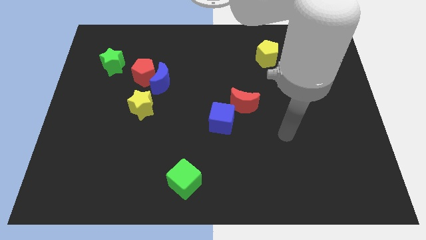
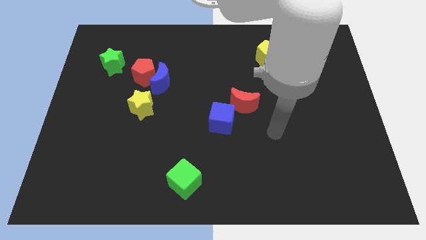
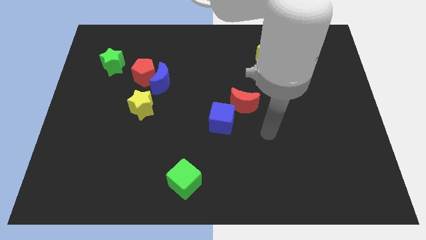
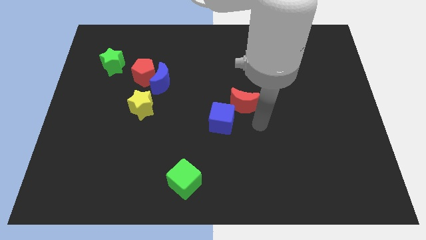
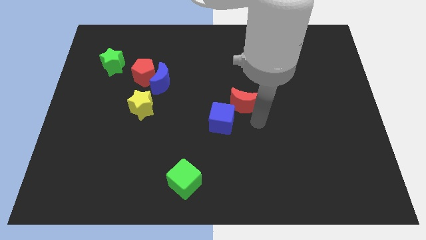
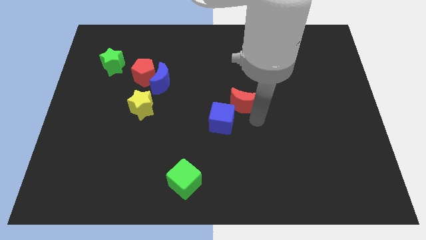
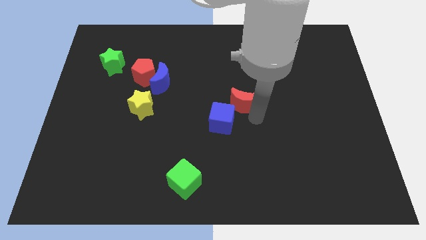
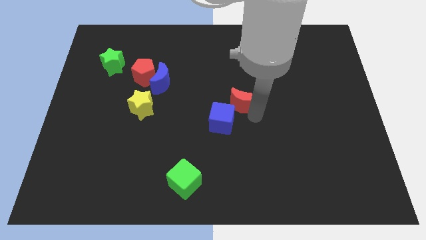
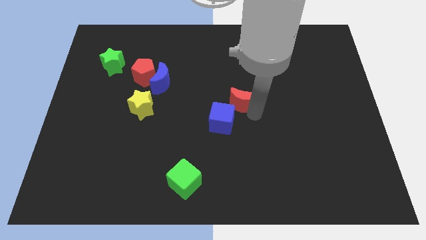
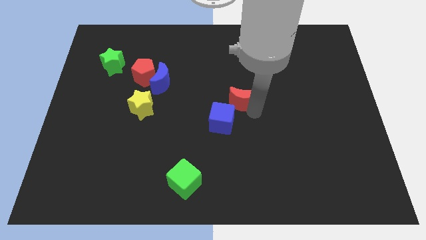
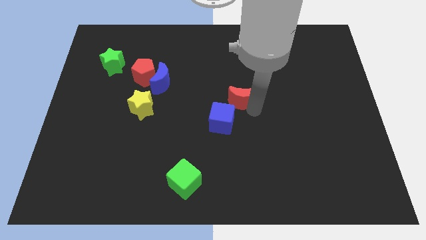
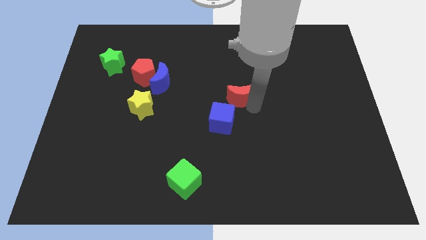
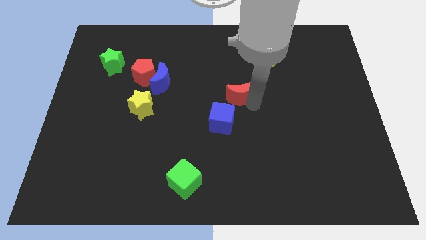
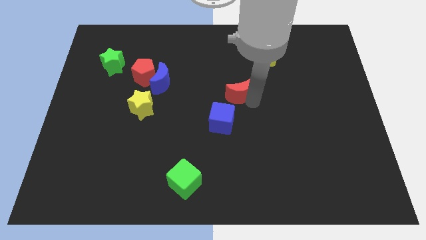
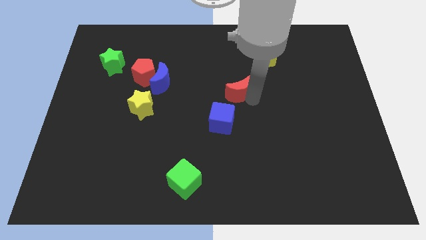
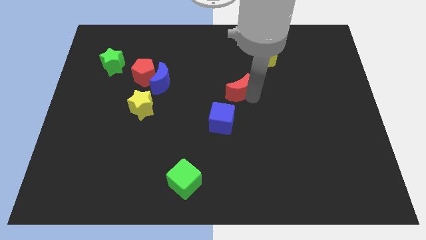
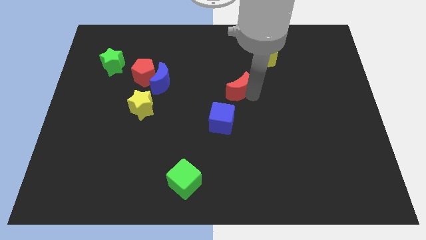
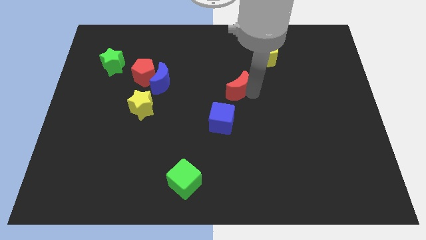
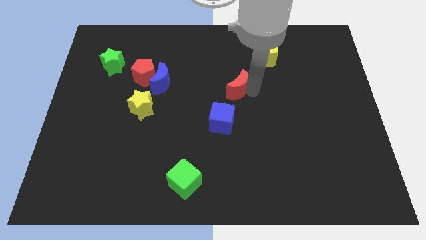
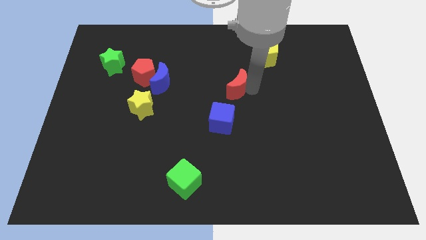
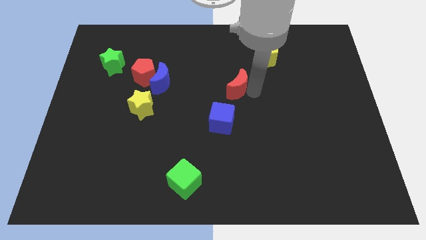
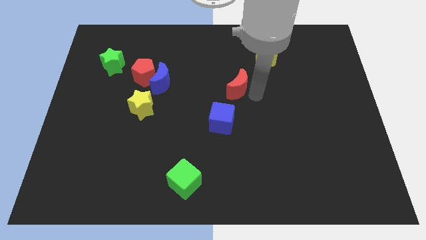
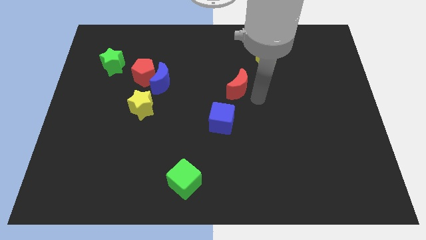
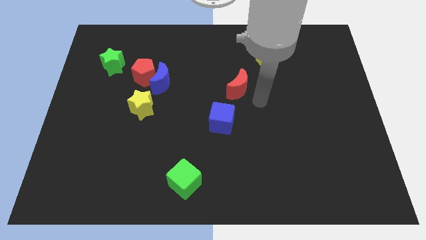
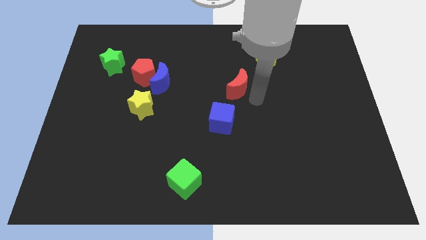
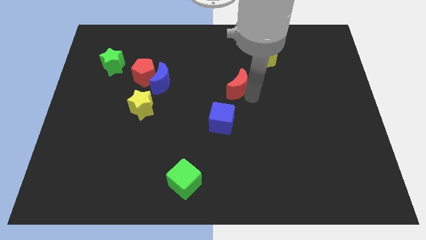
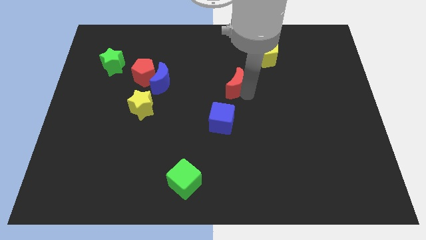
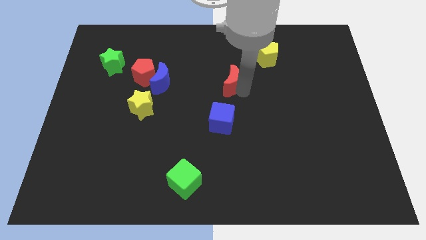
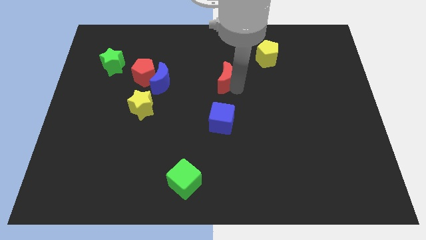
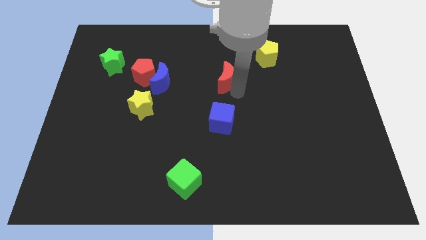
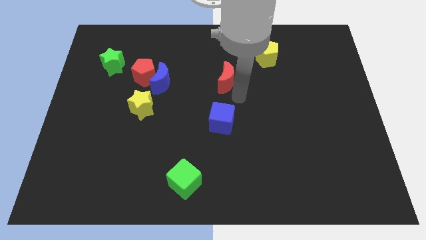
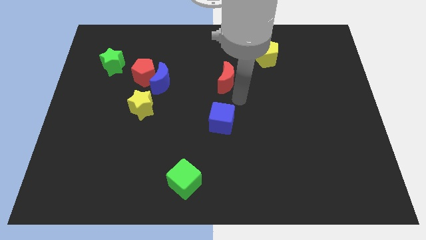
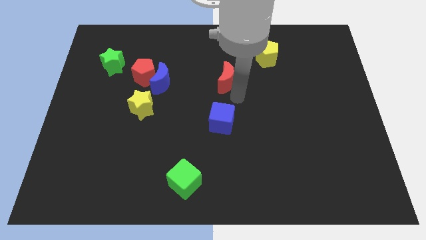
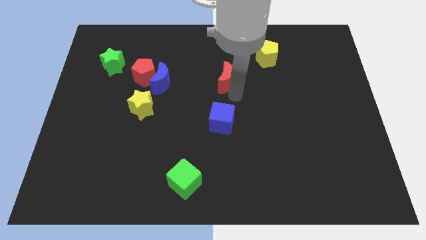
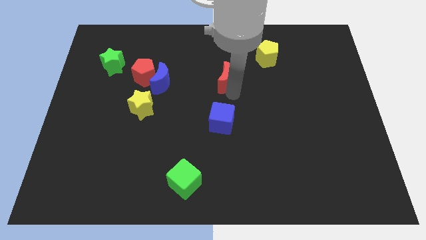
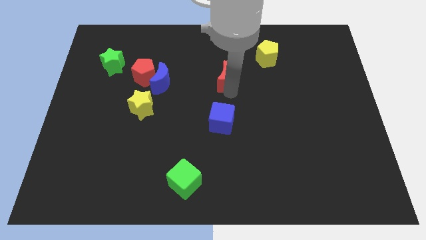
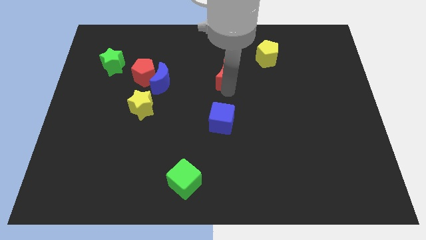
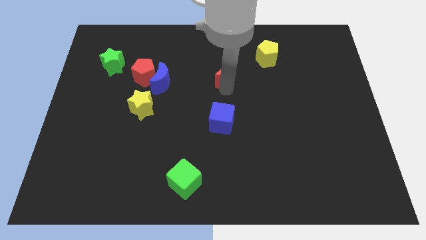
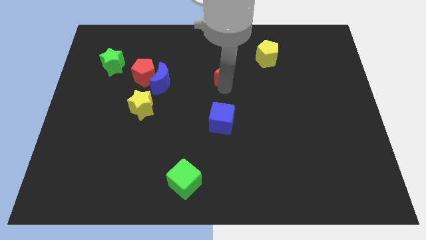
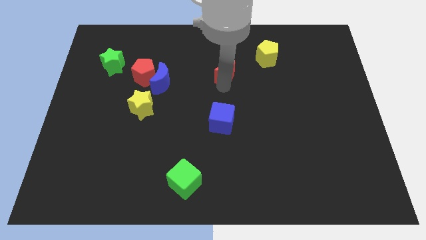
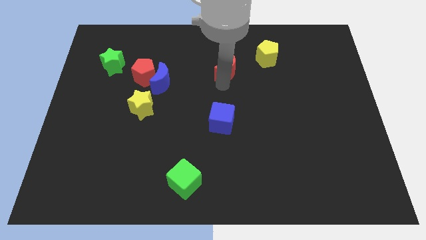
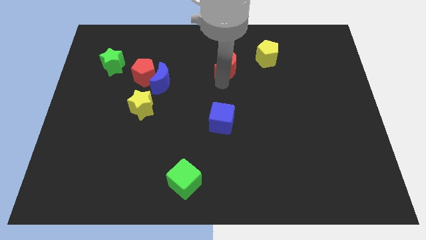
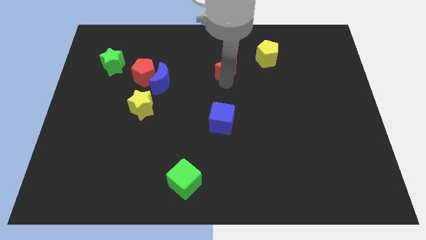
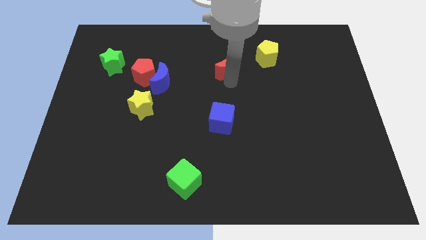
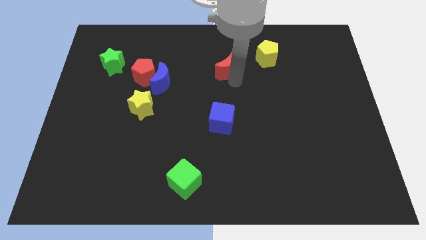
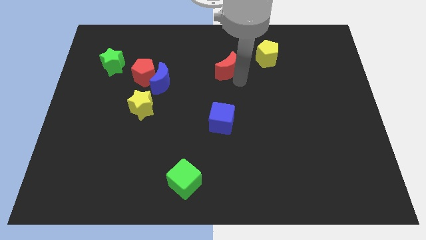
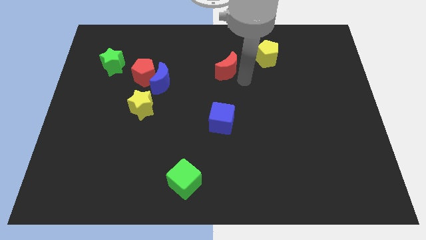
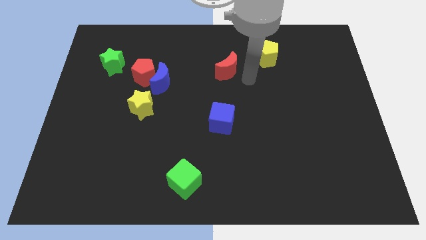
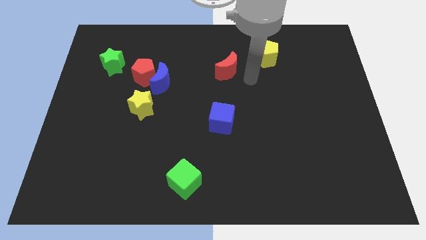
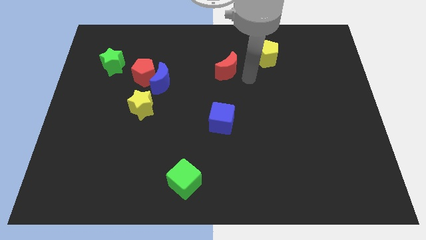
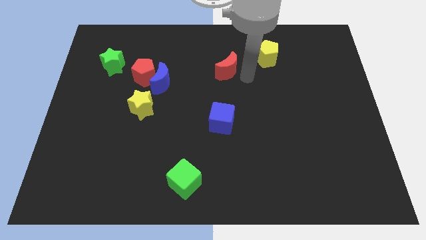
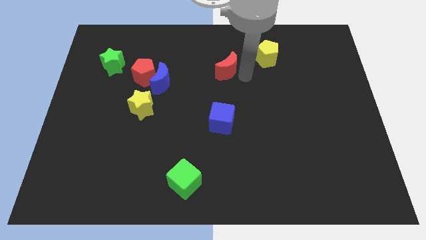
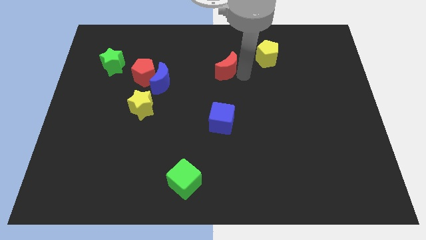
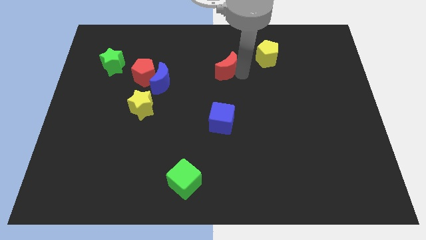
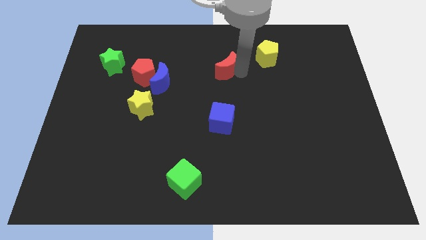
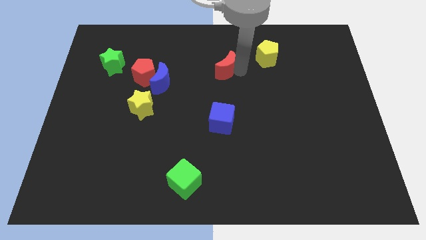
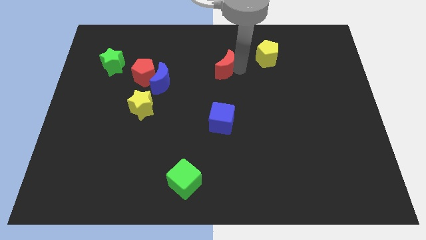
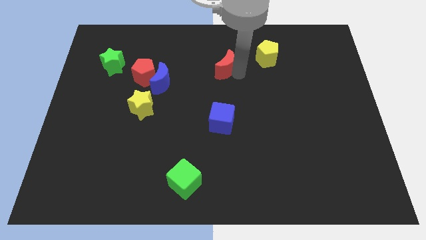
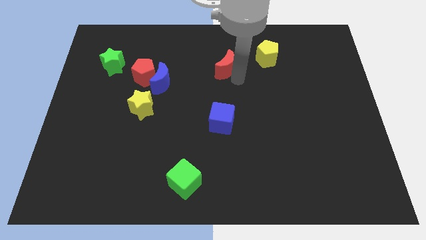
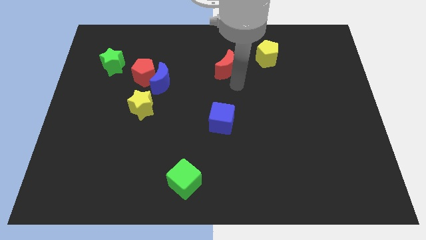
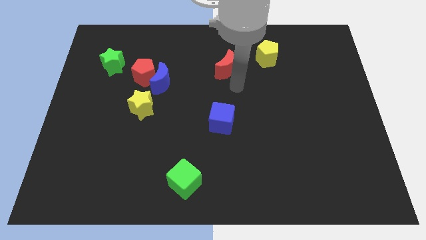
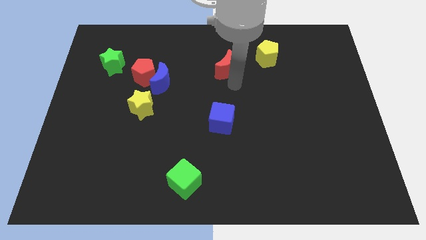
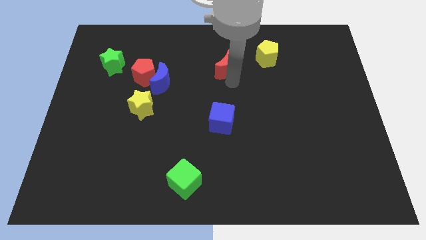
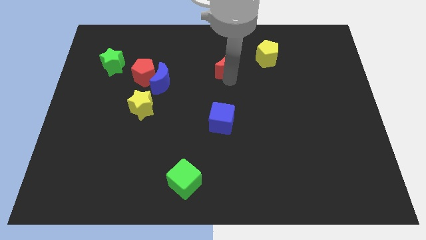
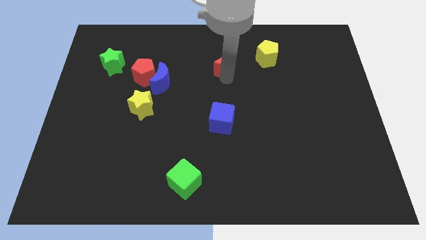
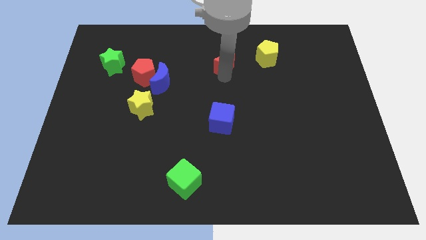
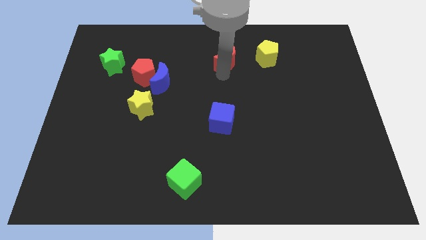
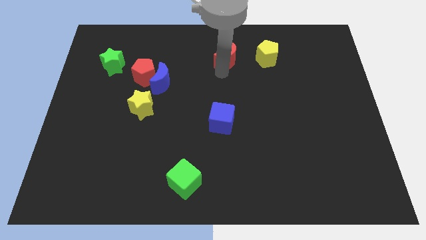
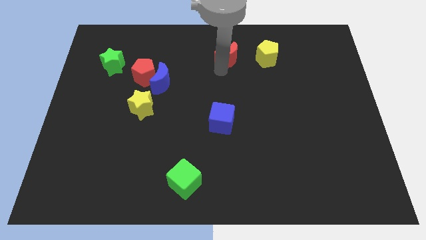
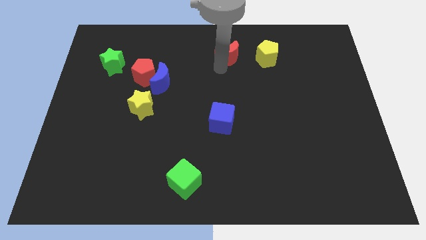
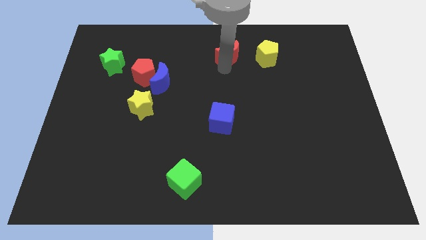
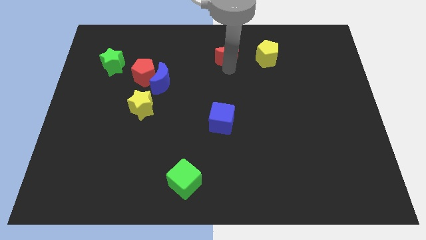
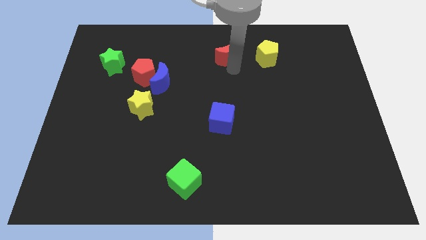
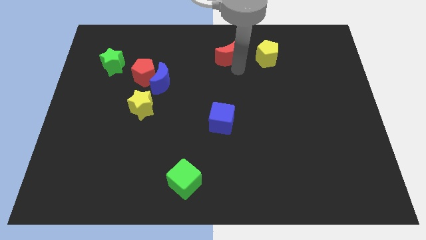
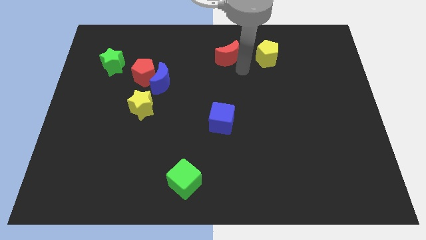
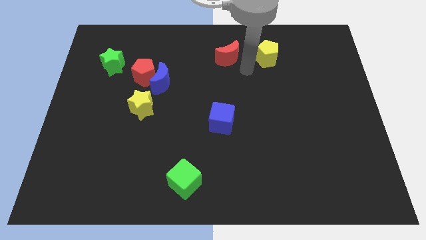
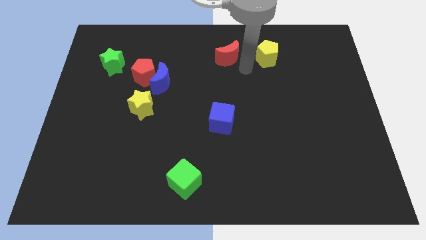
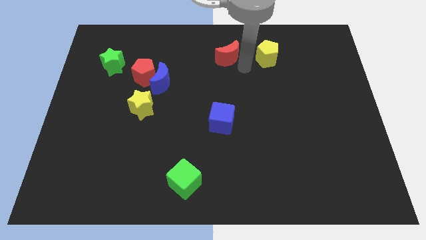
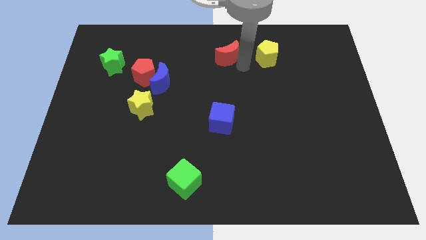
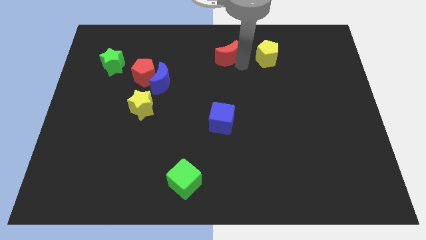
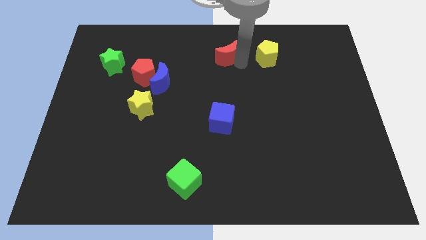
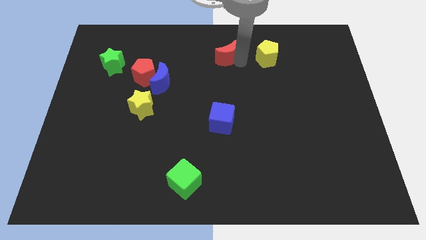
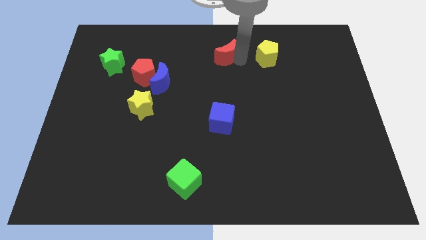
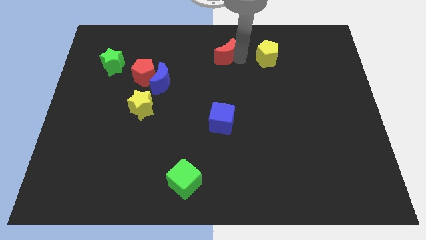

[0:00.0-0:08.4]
push the red moon to the top
